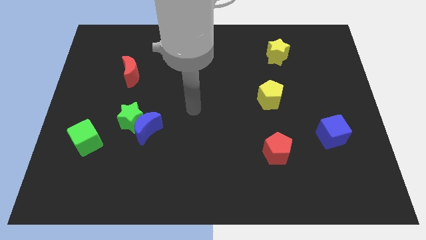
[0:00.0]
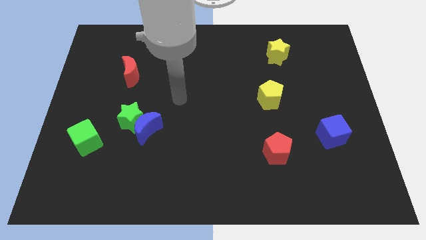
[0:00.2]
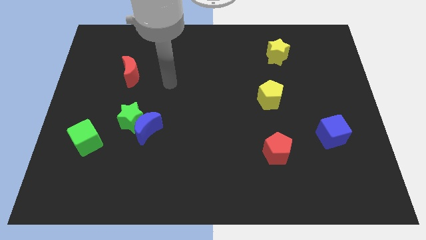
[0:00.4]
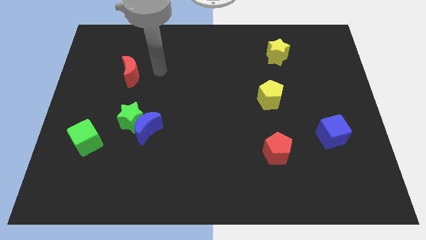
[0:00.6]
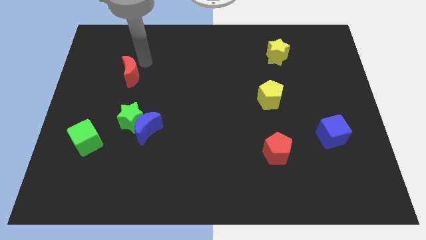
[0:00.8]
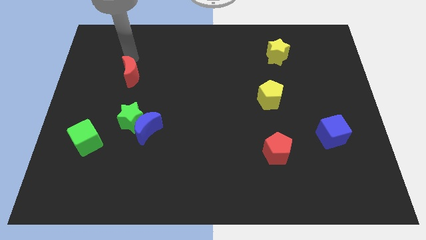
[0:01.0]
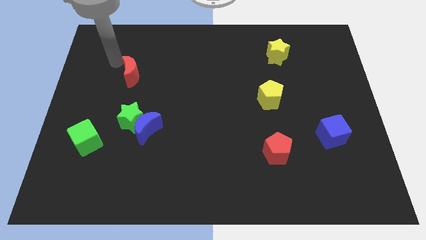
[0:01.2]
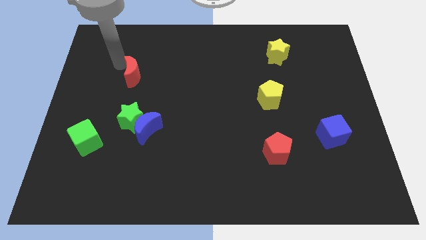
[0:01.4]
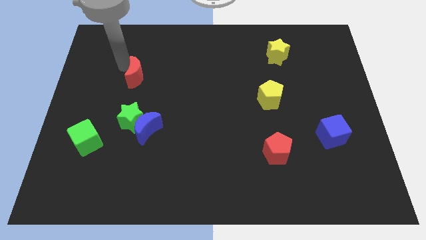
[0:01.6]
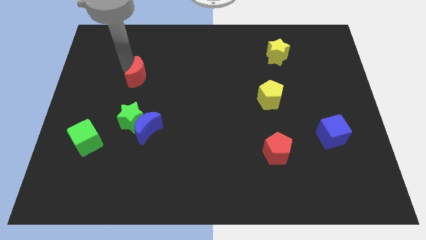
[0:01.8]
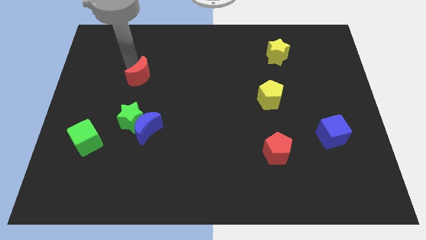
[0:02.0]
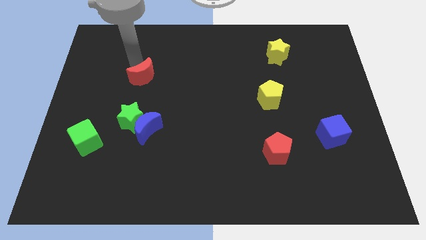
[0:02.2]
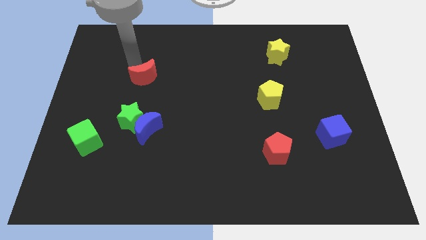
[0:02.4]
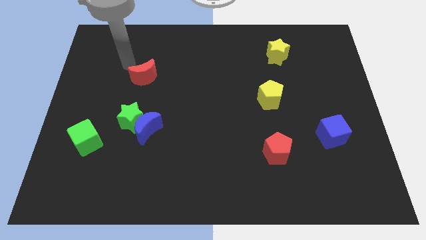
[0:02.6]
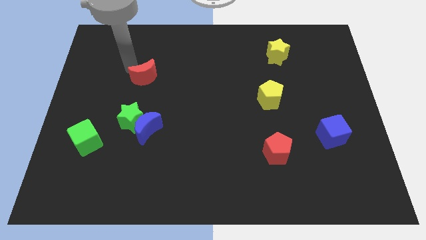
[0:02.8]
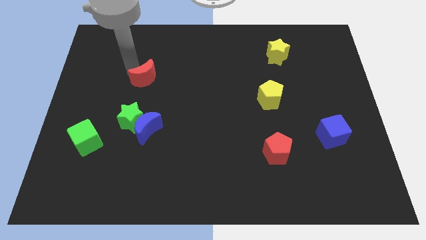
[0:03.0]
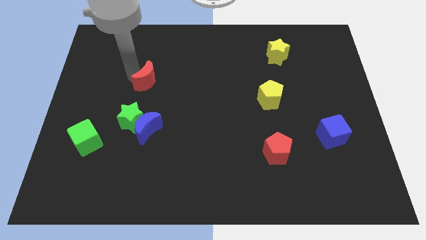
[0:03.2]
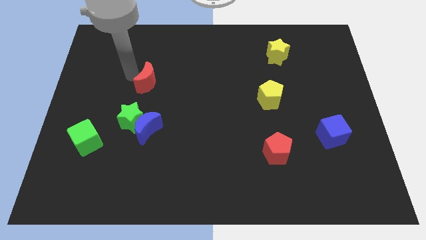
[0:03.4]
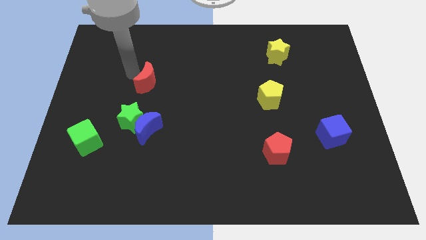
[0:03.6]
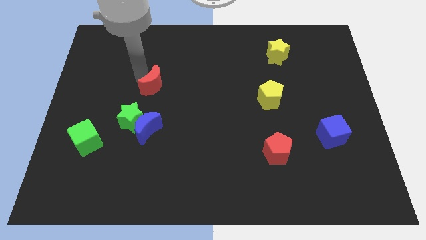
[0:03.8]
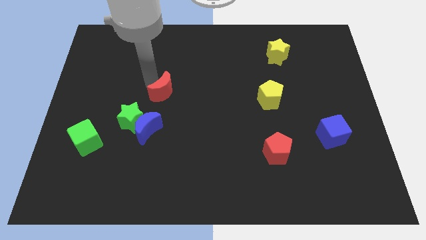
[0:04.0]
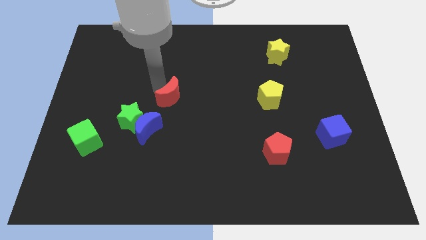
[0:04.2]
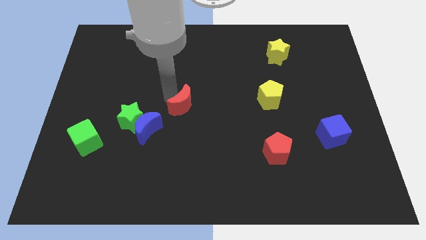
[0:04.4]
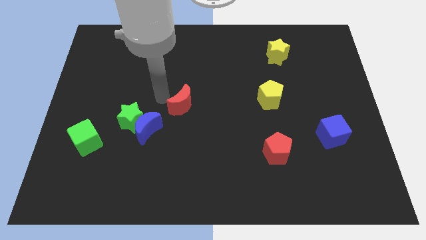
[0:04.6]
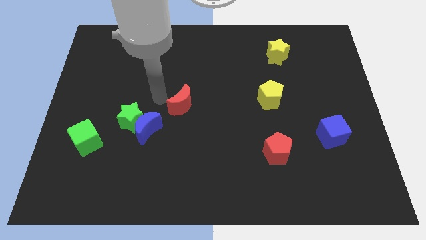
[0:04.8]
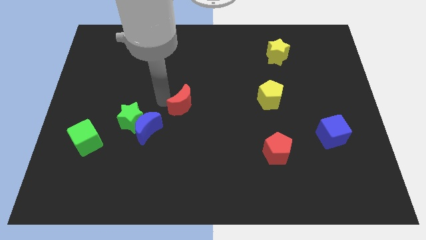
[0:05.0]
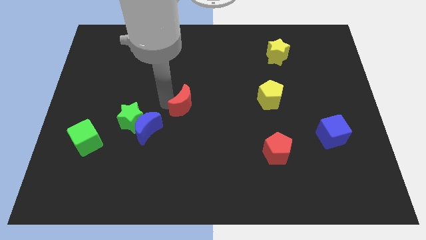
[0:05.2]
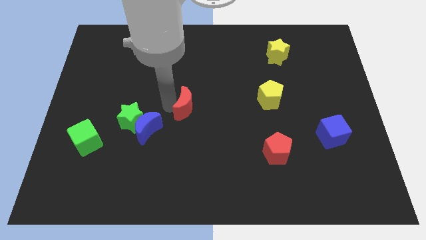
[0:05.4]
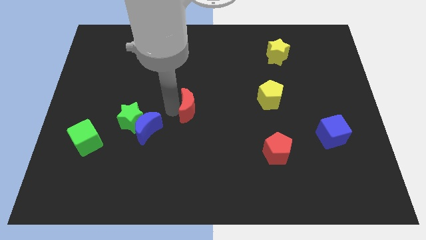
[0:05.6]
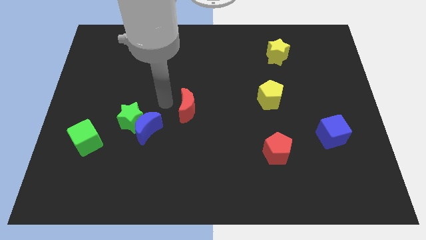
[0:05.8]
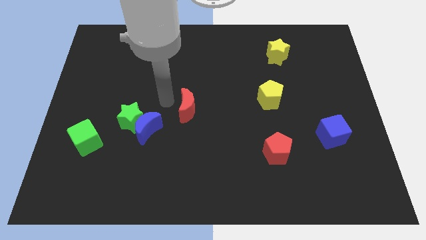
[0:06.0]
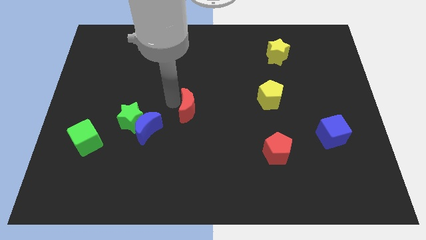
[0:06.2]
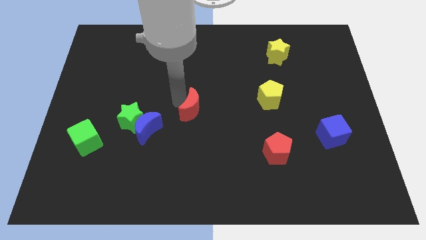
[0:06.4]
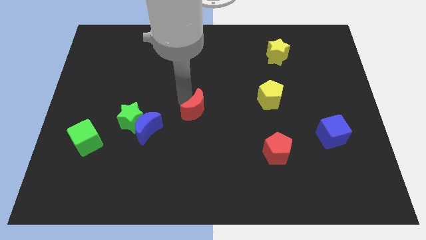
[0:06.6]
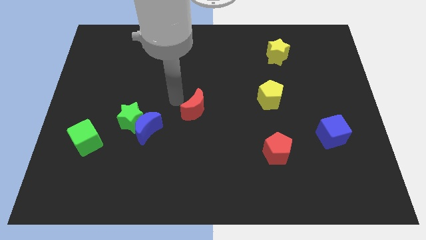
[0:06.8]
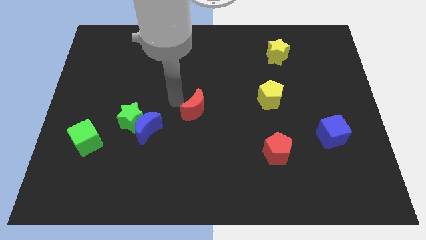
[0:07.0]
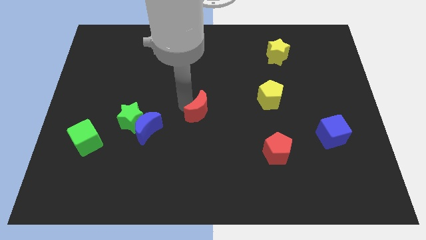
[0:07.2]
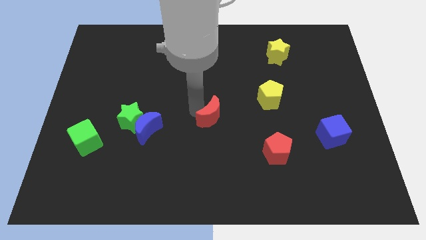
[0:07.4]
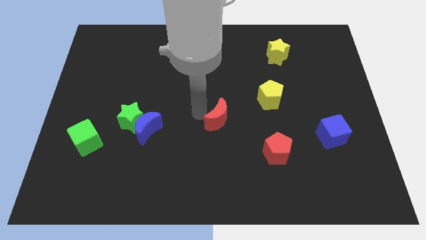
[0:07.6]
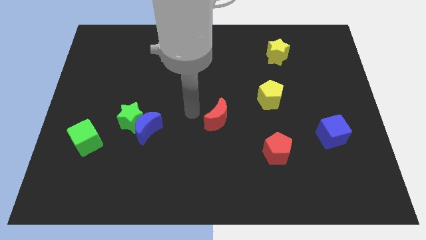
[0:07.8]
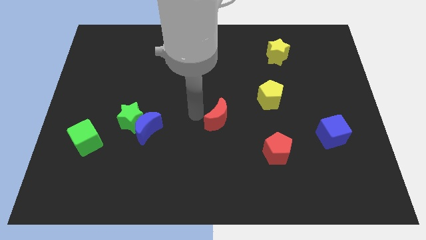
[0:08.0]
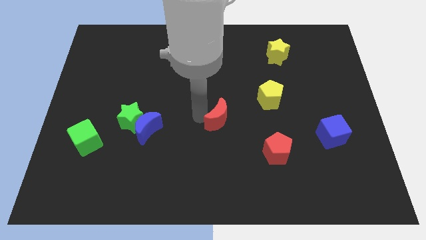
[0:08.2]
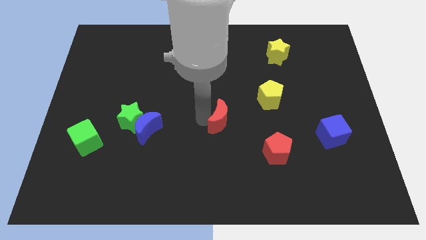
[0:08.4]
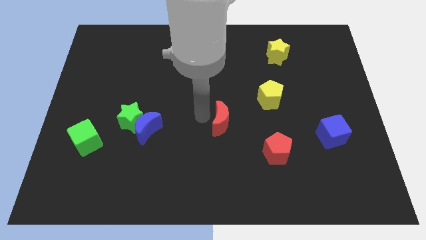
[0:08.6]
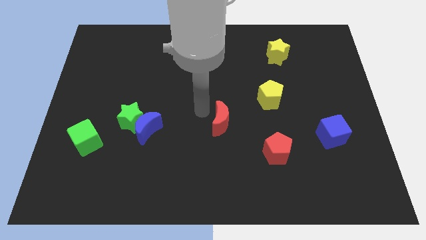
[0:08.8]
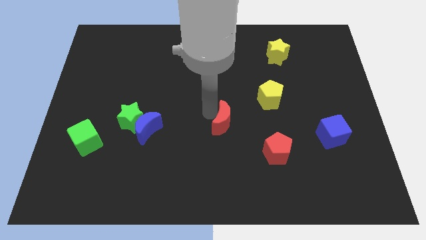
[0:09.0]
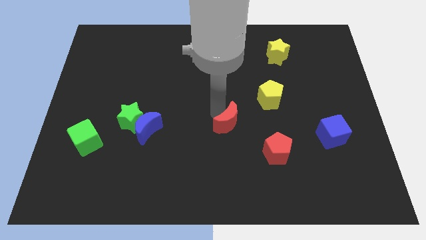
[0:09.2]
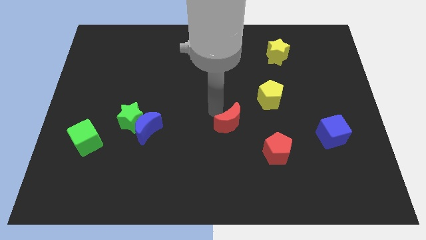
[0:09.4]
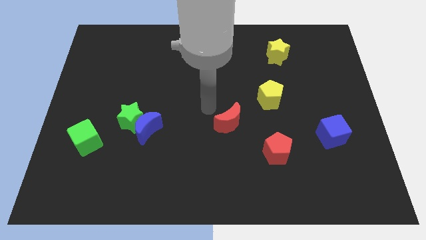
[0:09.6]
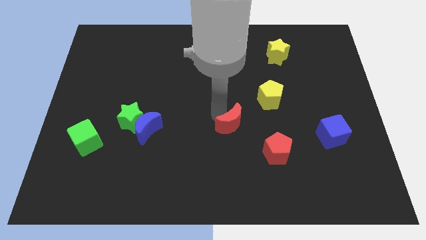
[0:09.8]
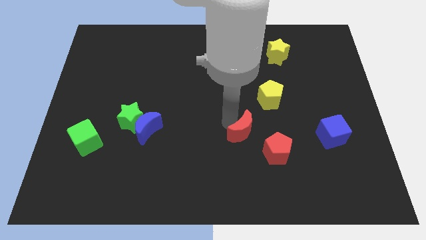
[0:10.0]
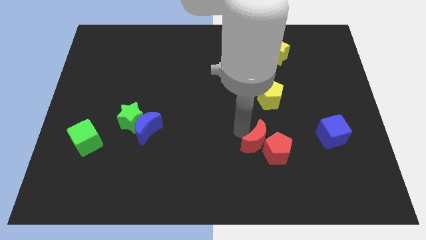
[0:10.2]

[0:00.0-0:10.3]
put the red moon next to the red pentagon

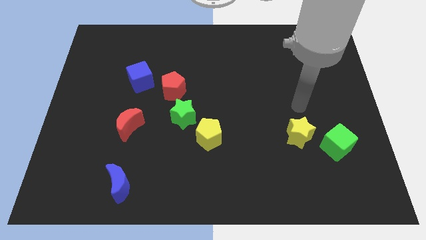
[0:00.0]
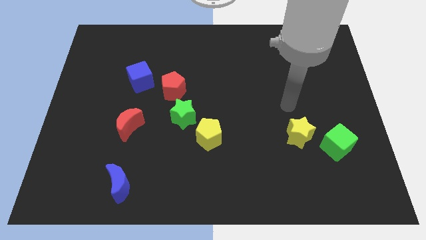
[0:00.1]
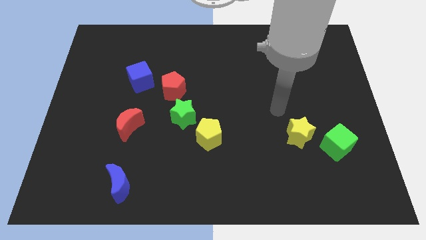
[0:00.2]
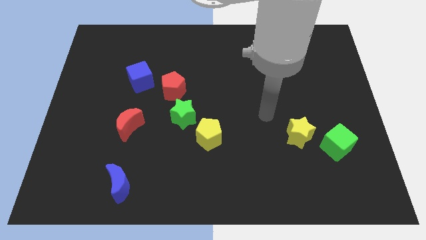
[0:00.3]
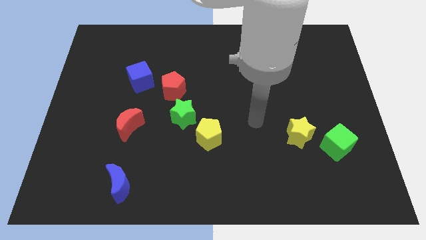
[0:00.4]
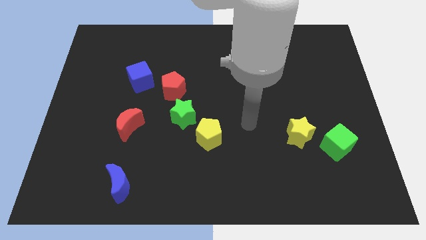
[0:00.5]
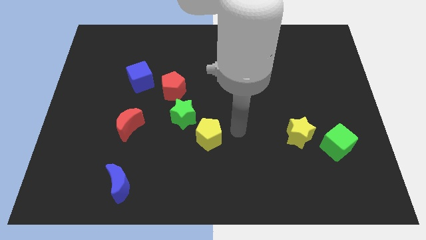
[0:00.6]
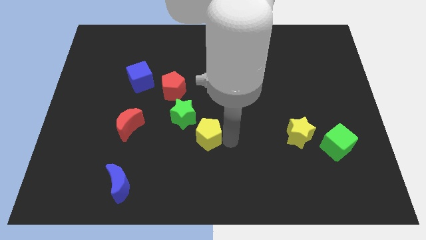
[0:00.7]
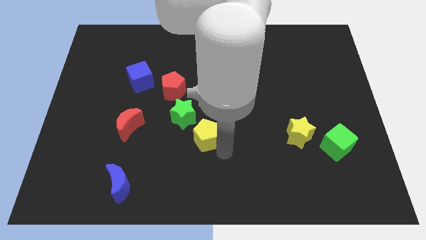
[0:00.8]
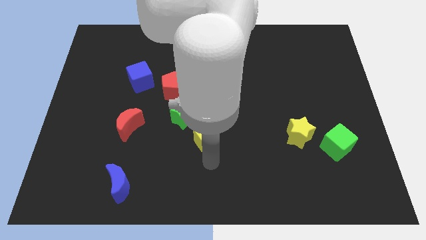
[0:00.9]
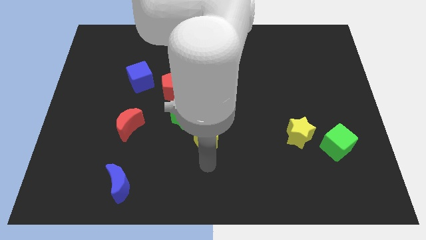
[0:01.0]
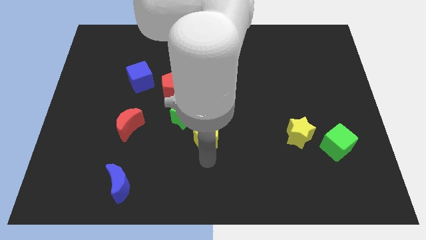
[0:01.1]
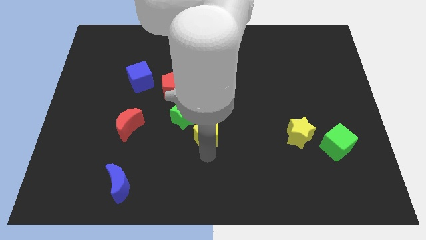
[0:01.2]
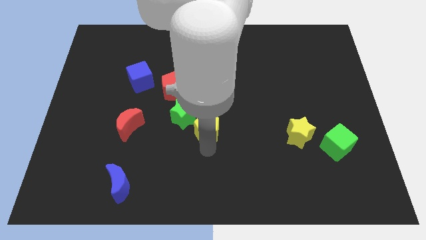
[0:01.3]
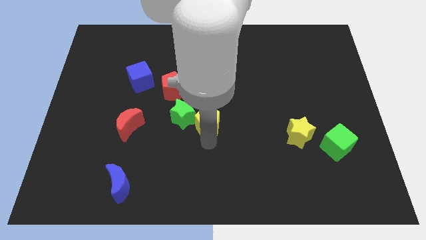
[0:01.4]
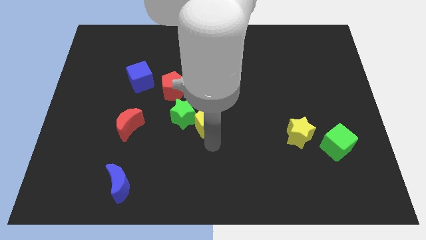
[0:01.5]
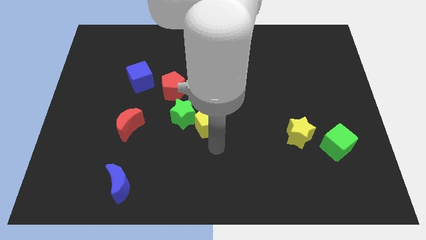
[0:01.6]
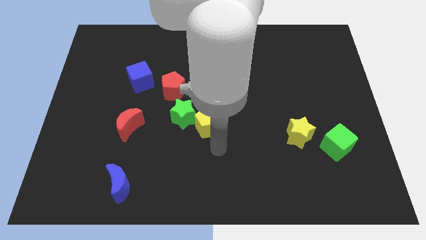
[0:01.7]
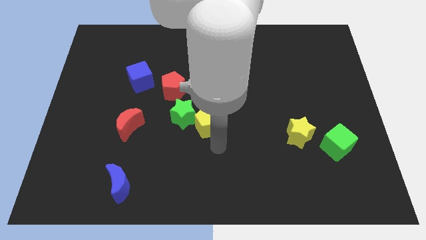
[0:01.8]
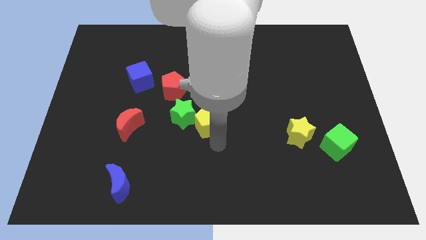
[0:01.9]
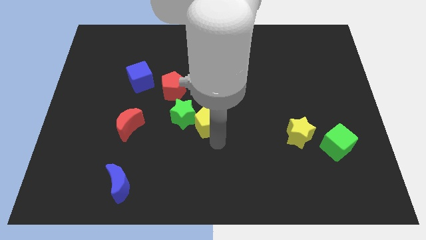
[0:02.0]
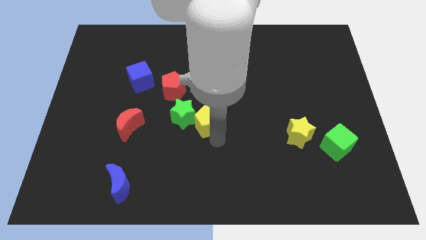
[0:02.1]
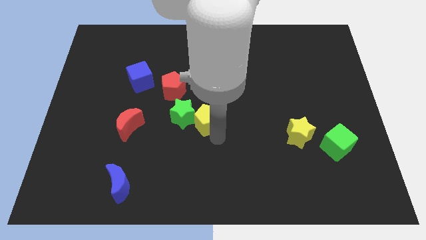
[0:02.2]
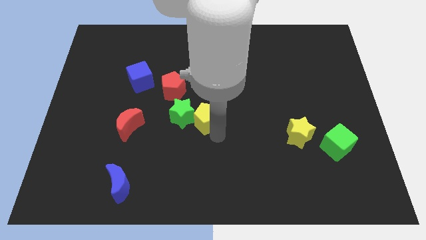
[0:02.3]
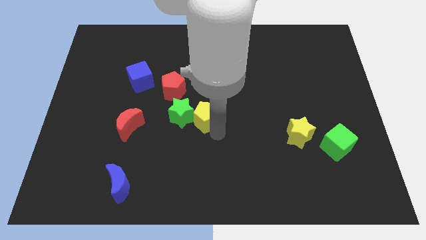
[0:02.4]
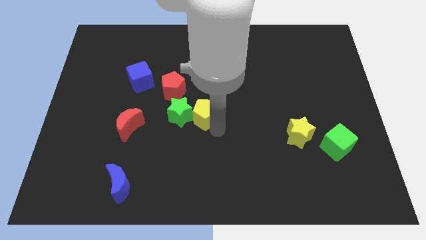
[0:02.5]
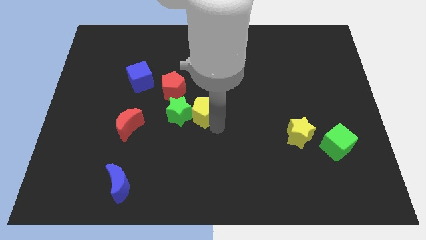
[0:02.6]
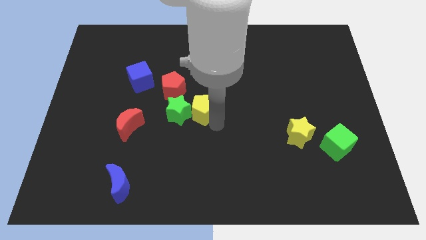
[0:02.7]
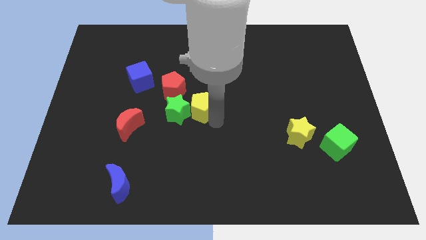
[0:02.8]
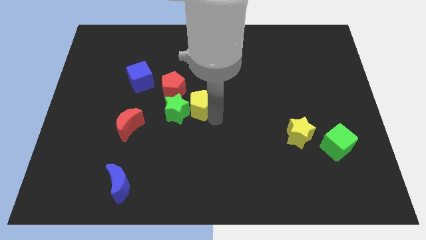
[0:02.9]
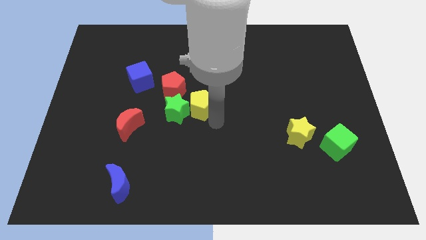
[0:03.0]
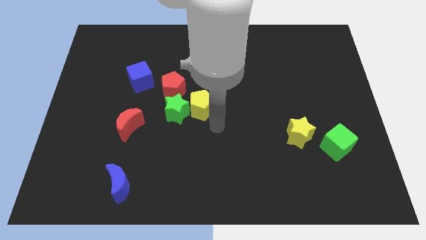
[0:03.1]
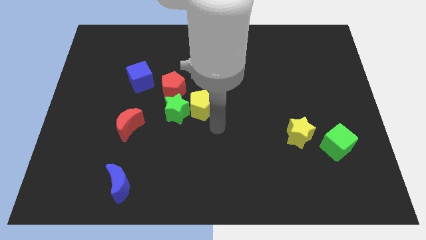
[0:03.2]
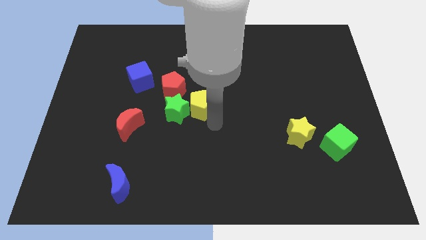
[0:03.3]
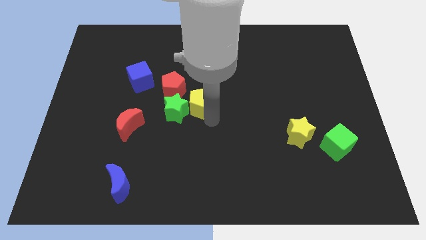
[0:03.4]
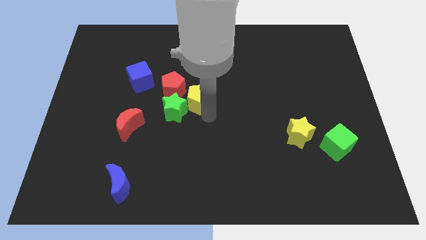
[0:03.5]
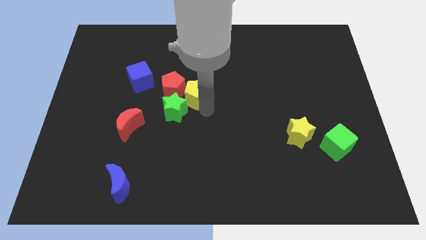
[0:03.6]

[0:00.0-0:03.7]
push the yellow pentagon towards the red pentagon
